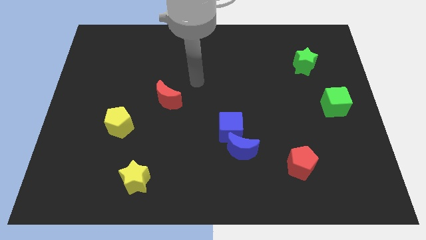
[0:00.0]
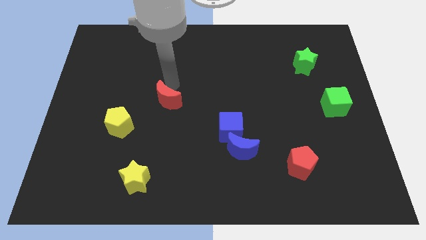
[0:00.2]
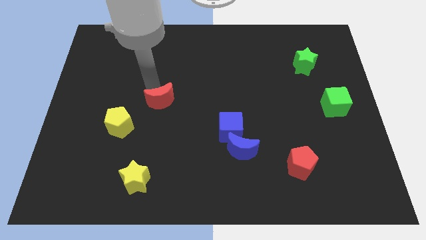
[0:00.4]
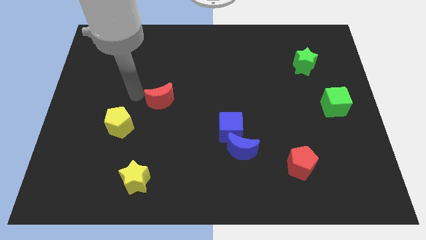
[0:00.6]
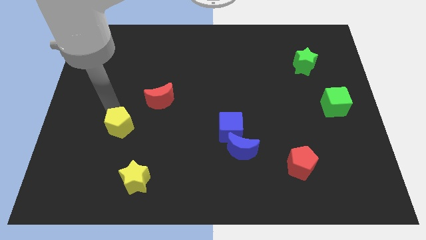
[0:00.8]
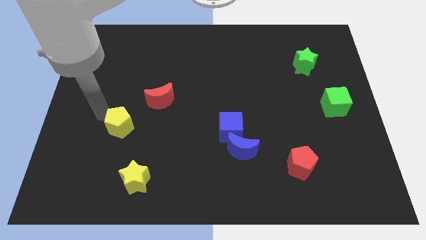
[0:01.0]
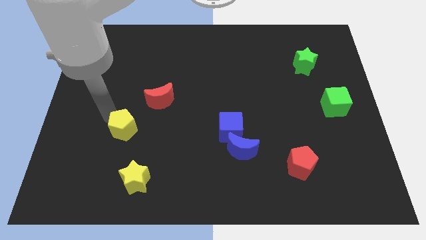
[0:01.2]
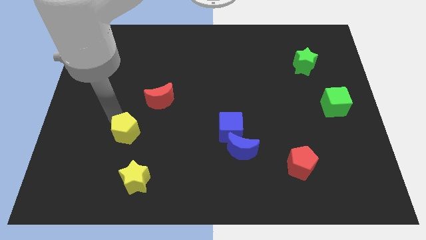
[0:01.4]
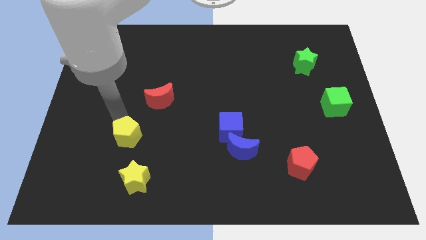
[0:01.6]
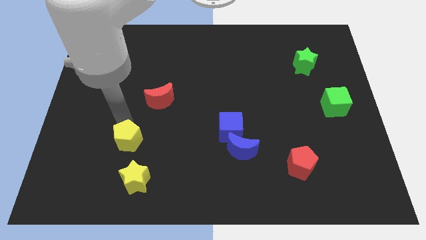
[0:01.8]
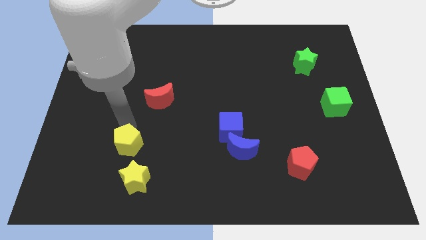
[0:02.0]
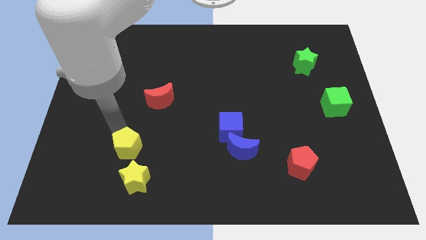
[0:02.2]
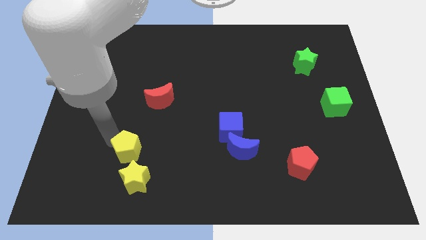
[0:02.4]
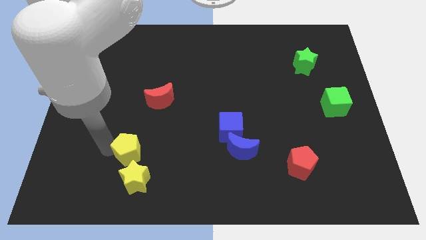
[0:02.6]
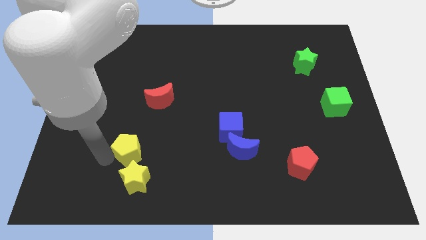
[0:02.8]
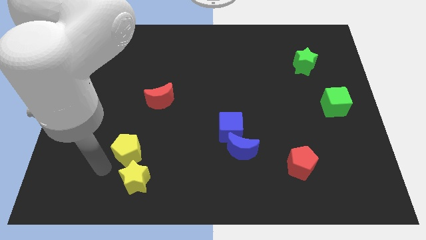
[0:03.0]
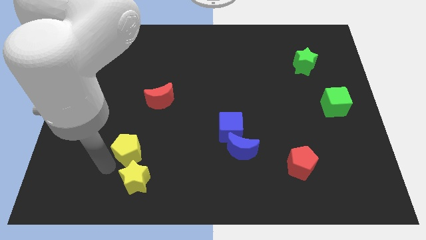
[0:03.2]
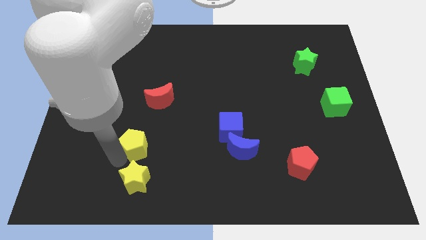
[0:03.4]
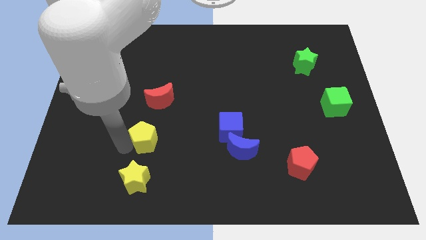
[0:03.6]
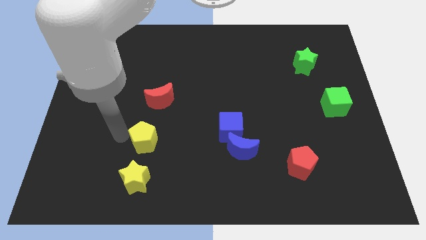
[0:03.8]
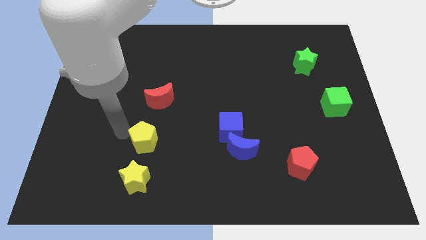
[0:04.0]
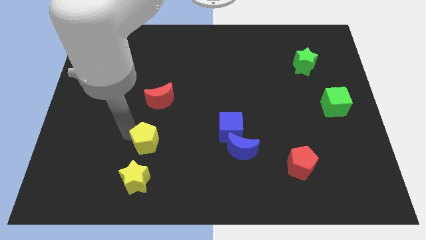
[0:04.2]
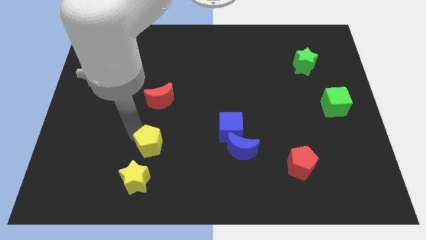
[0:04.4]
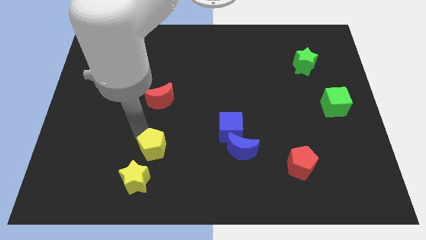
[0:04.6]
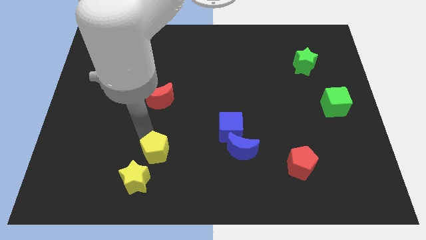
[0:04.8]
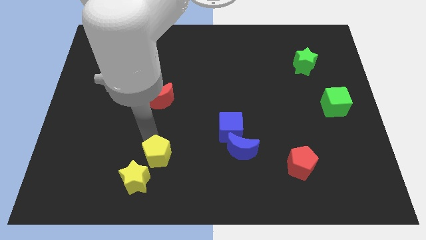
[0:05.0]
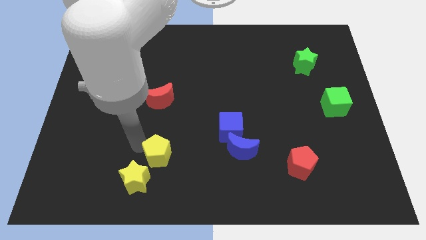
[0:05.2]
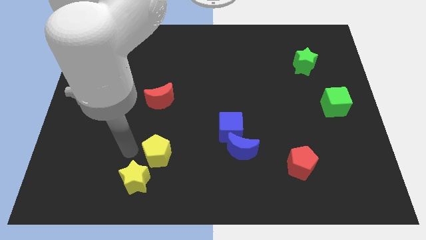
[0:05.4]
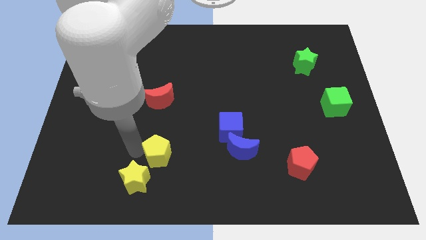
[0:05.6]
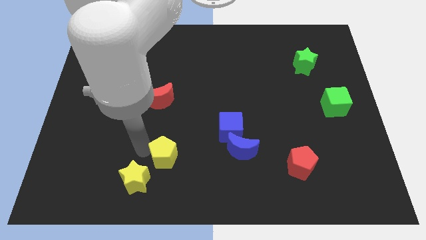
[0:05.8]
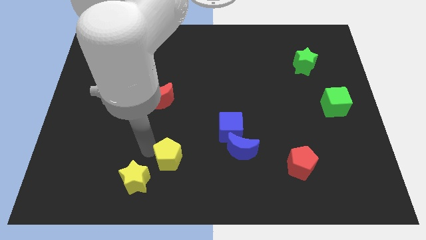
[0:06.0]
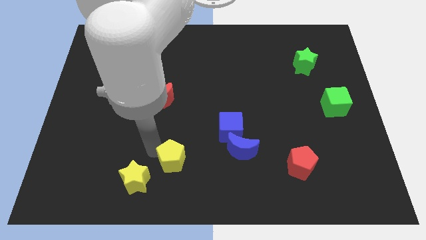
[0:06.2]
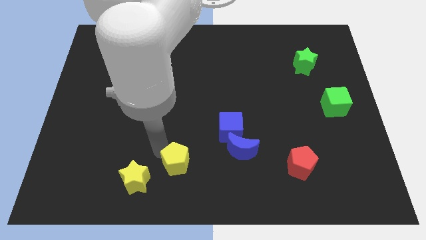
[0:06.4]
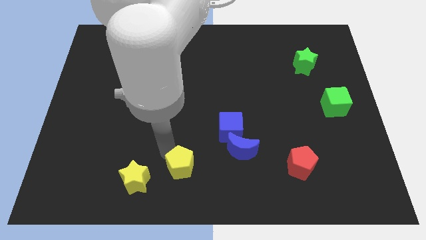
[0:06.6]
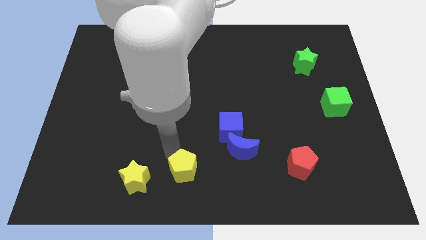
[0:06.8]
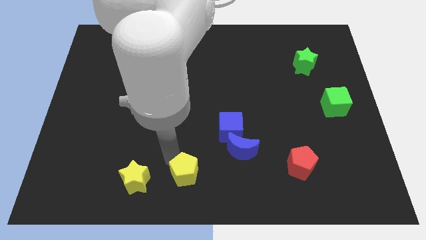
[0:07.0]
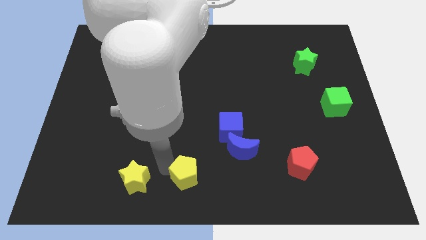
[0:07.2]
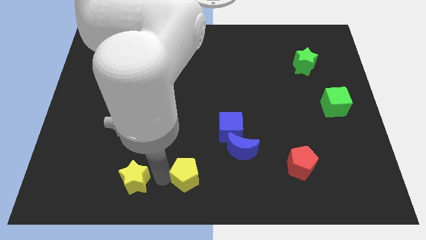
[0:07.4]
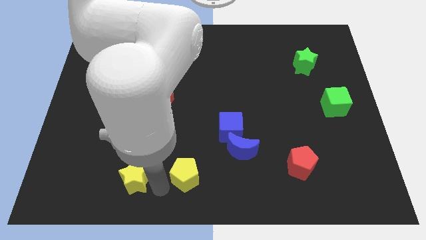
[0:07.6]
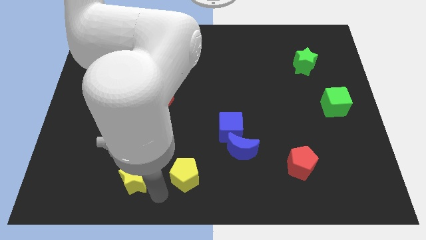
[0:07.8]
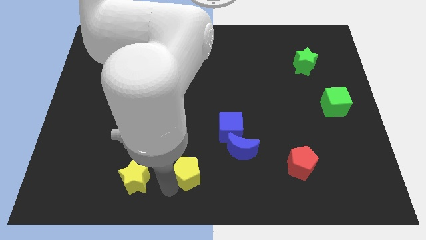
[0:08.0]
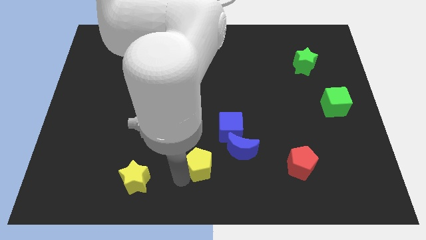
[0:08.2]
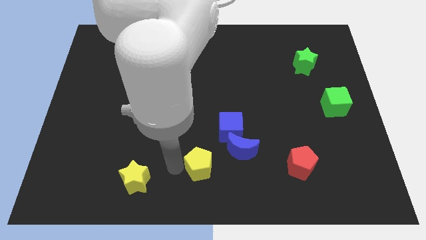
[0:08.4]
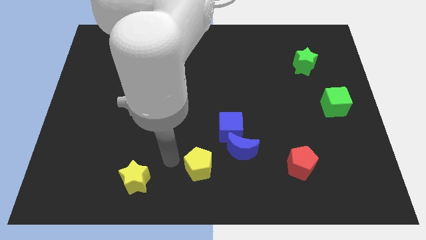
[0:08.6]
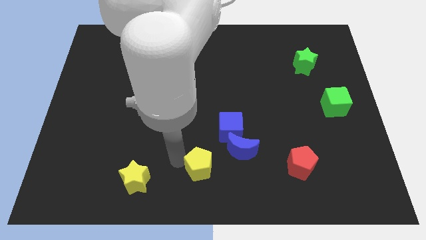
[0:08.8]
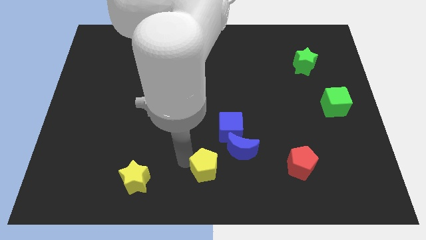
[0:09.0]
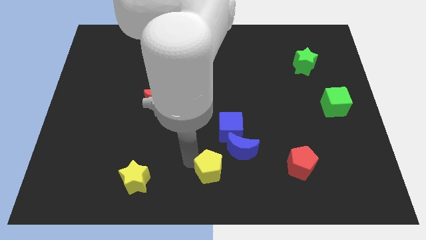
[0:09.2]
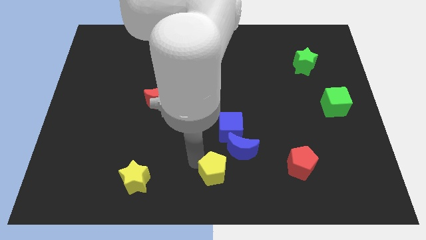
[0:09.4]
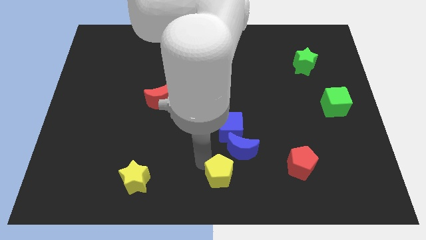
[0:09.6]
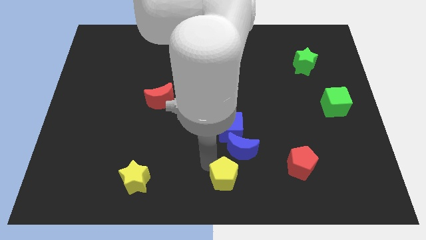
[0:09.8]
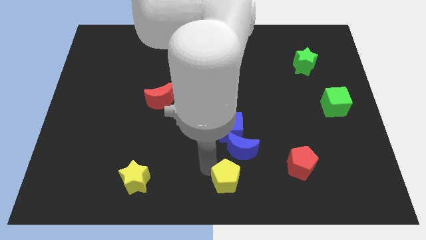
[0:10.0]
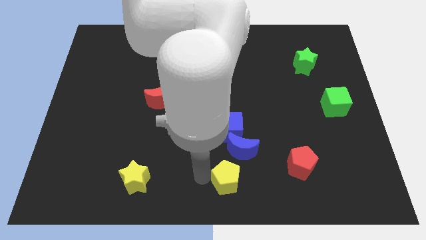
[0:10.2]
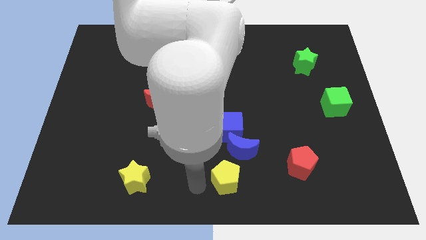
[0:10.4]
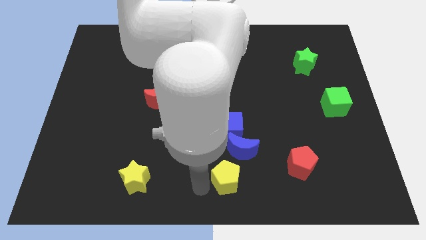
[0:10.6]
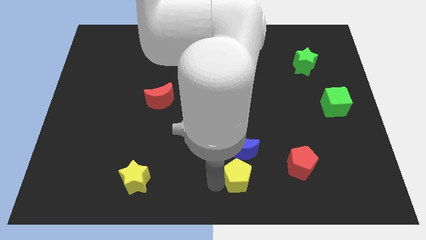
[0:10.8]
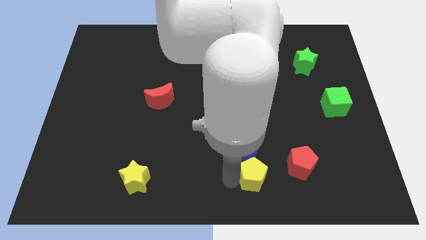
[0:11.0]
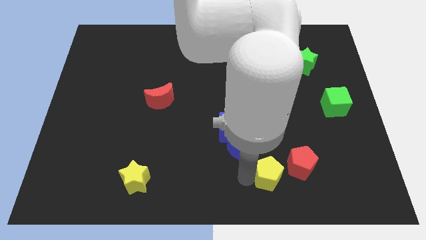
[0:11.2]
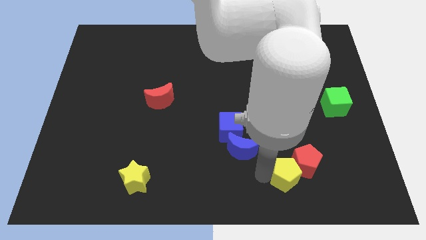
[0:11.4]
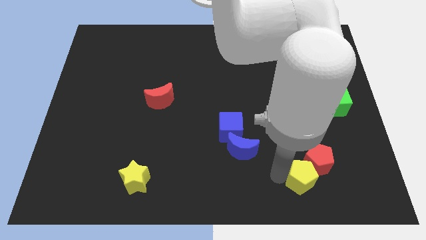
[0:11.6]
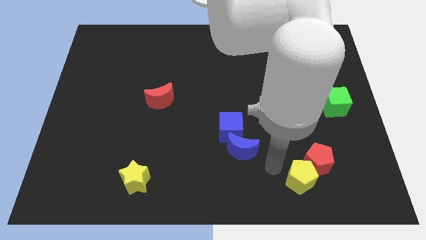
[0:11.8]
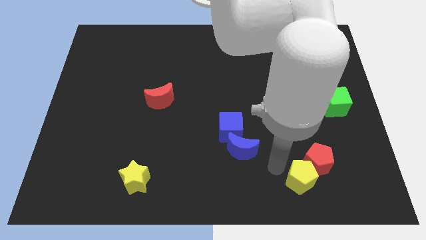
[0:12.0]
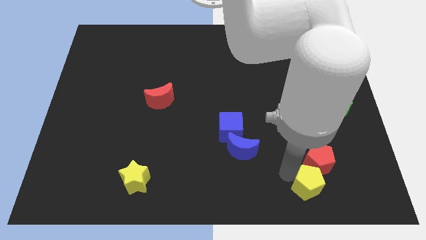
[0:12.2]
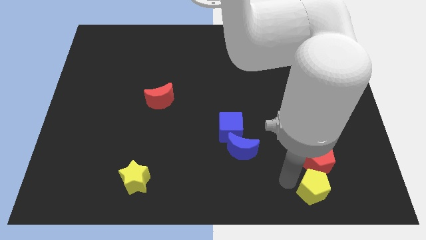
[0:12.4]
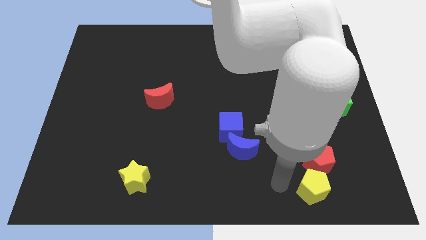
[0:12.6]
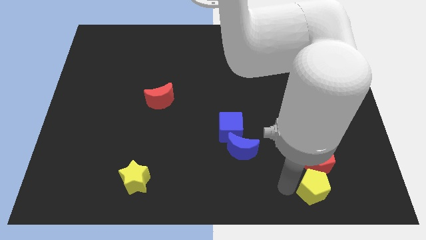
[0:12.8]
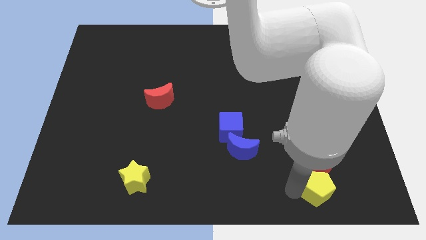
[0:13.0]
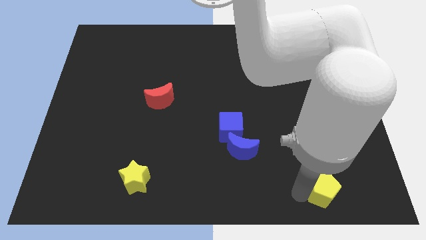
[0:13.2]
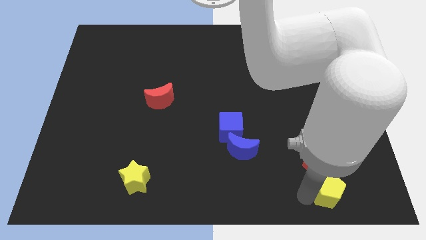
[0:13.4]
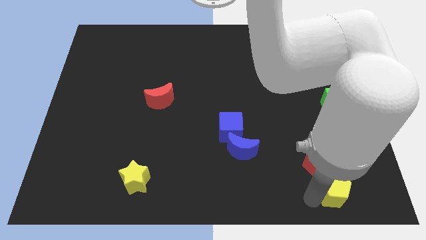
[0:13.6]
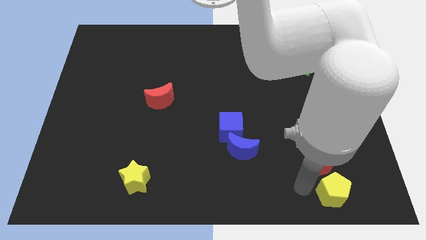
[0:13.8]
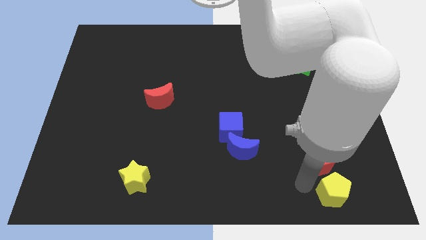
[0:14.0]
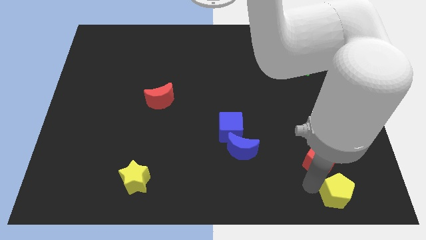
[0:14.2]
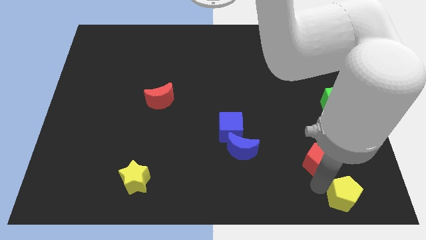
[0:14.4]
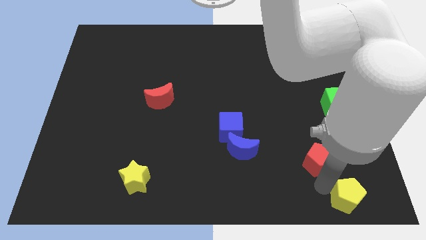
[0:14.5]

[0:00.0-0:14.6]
slide the yellow pentagon to the lower right corner
